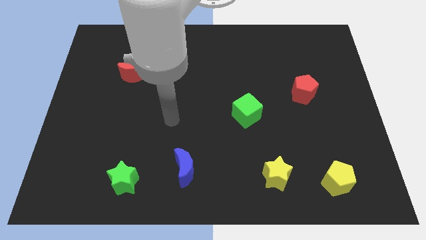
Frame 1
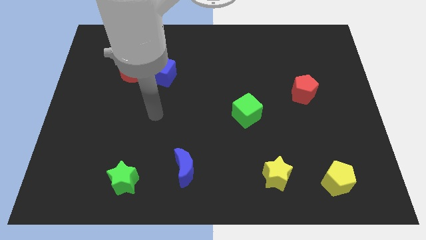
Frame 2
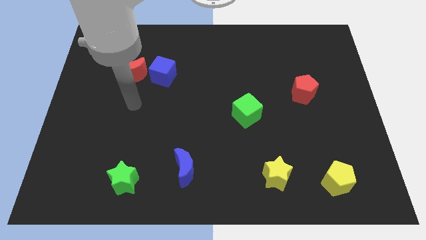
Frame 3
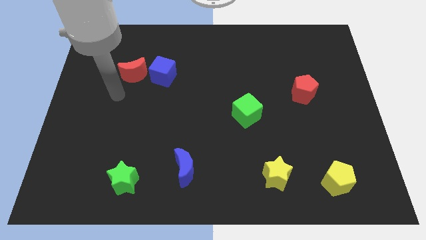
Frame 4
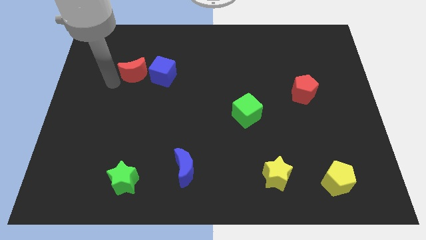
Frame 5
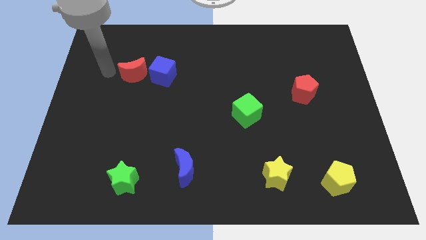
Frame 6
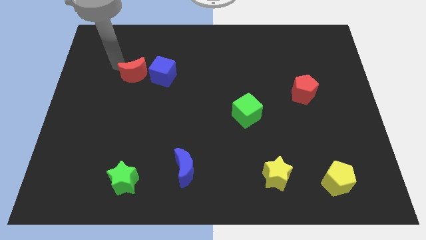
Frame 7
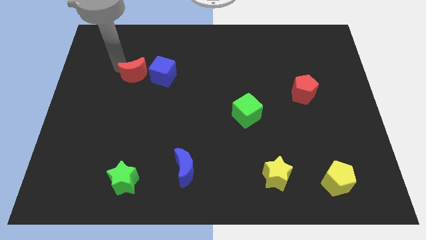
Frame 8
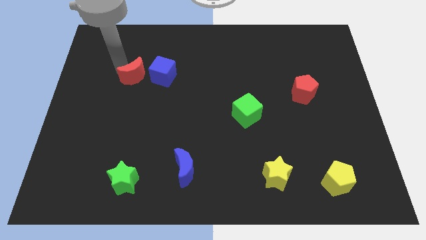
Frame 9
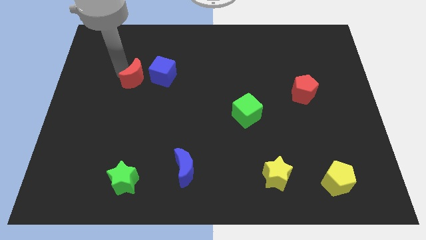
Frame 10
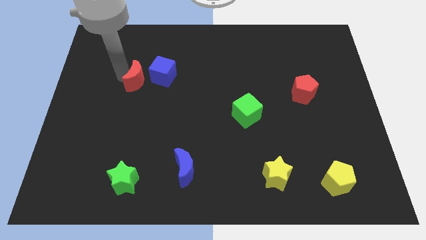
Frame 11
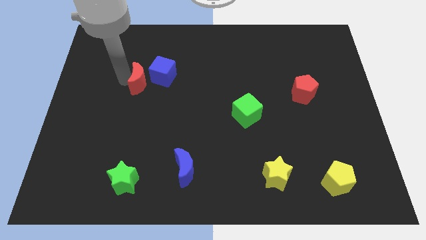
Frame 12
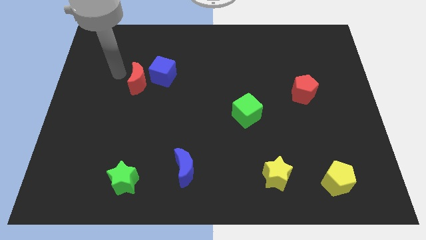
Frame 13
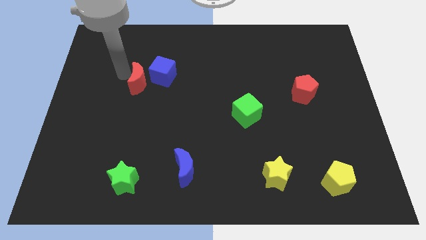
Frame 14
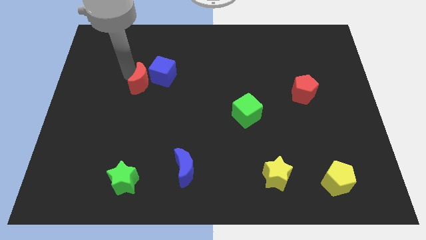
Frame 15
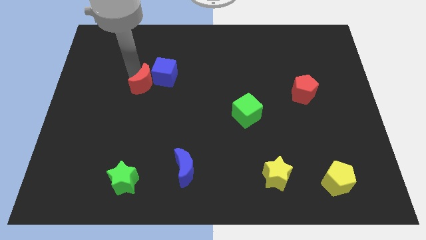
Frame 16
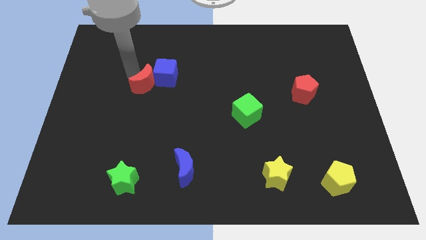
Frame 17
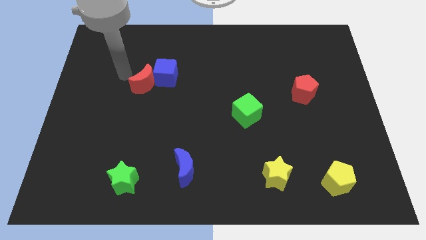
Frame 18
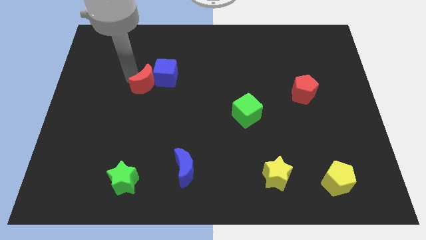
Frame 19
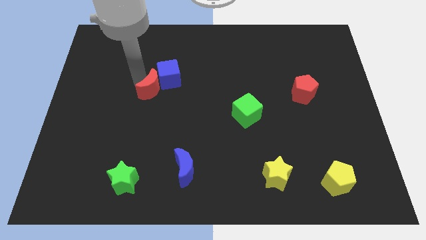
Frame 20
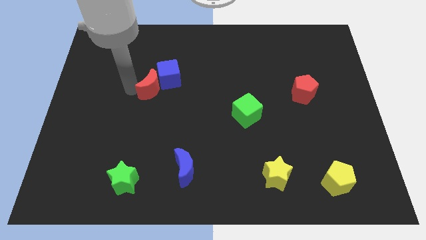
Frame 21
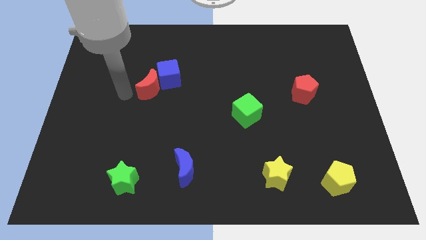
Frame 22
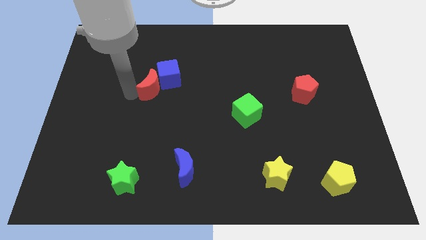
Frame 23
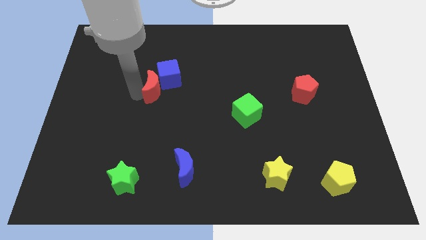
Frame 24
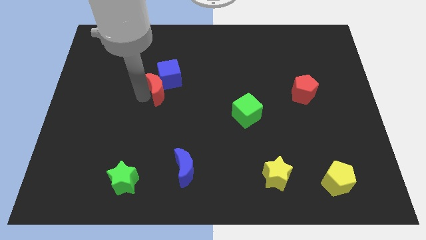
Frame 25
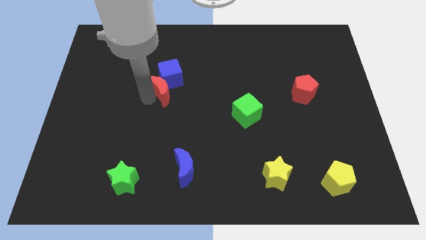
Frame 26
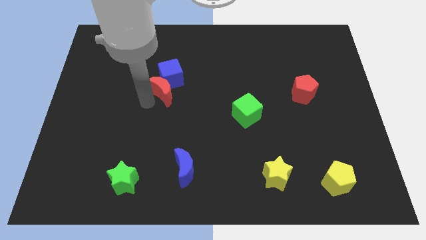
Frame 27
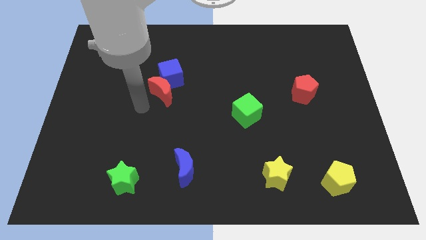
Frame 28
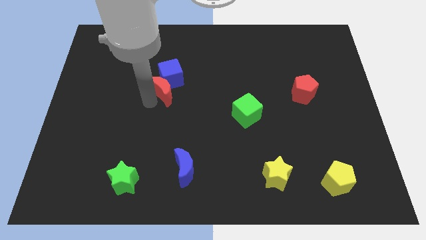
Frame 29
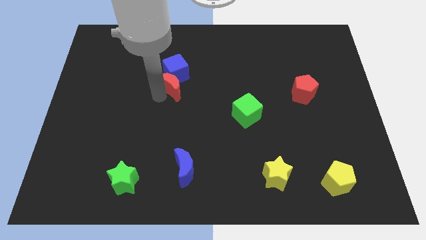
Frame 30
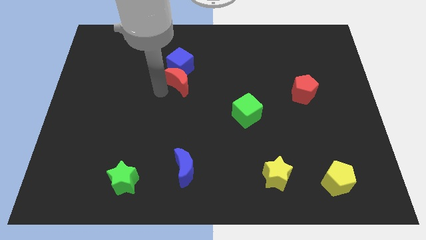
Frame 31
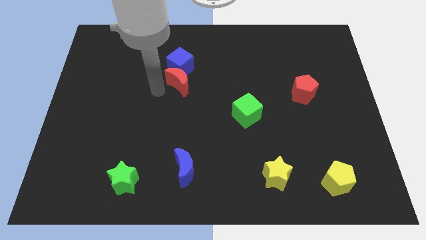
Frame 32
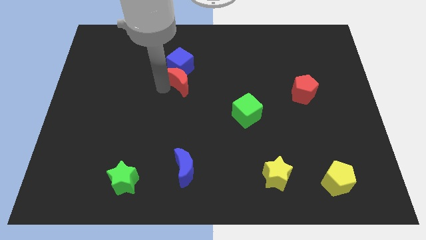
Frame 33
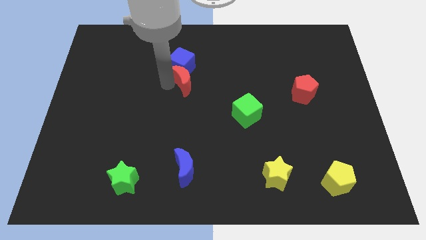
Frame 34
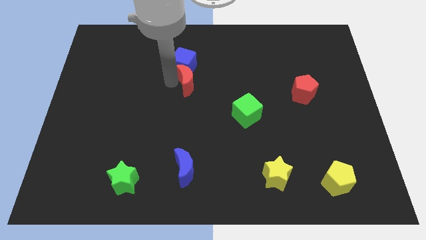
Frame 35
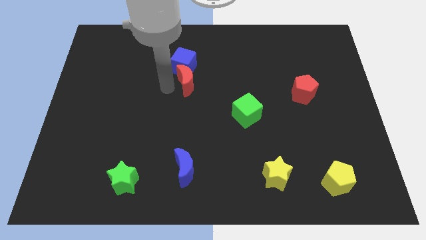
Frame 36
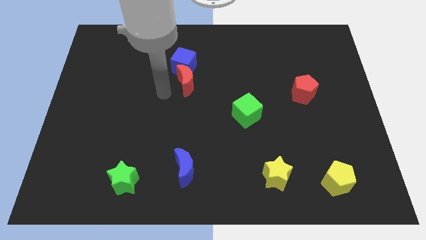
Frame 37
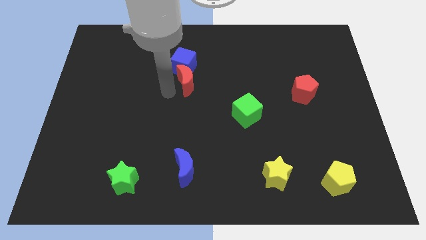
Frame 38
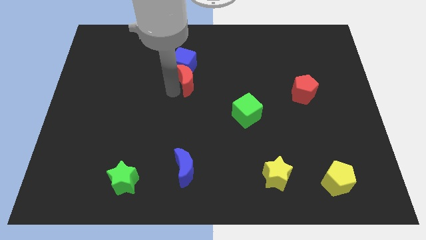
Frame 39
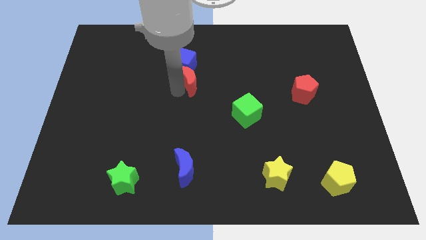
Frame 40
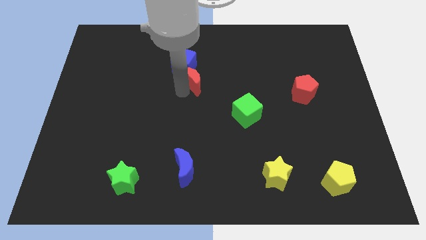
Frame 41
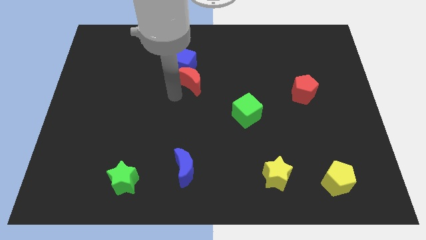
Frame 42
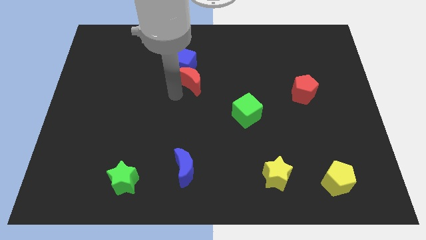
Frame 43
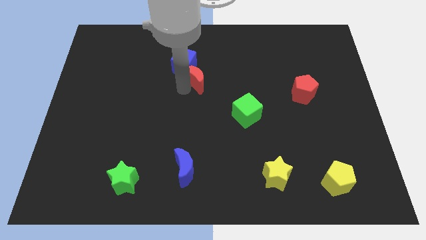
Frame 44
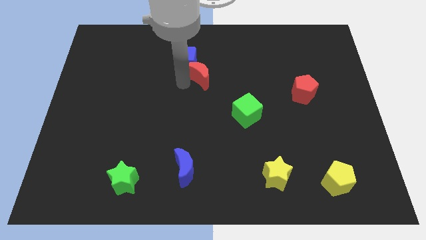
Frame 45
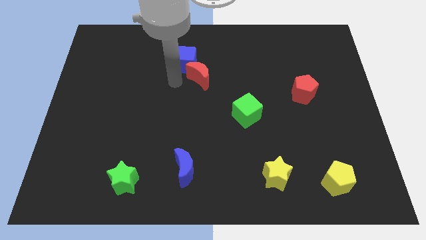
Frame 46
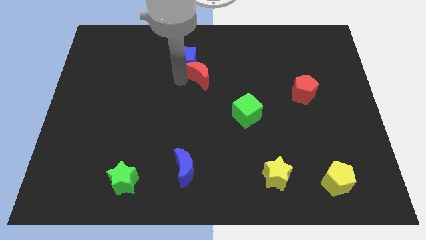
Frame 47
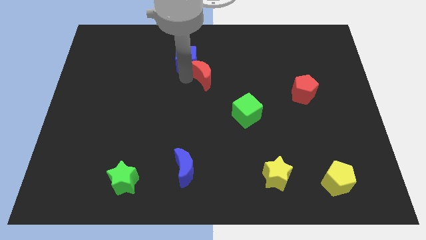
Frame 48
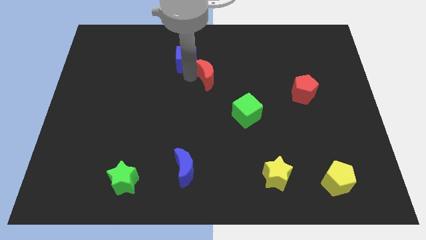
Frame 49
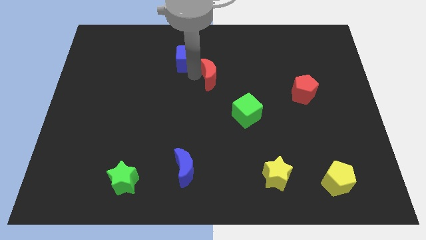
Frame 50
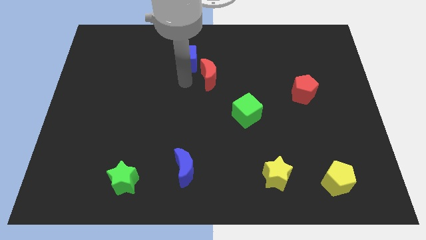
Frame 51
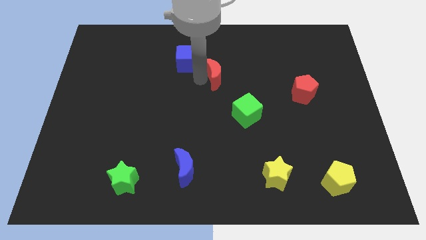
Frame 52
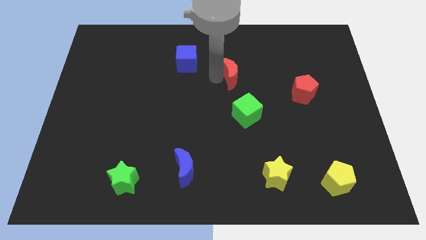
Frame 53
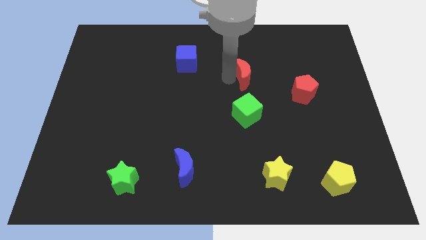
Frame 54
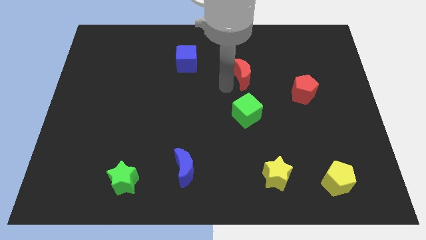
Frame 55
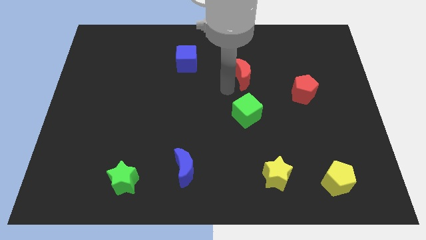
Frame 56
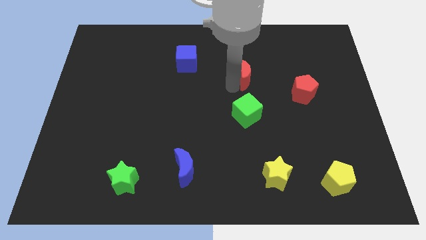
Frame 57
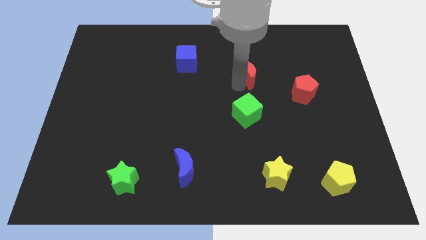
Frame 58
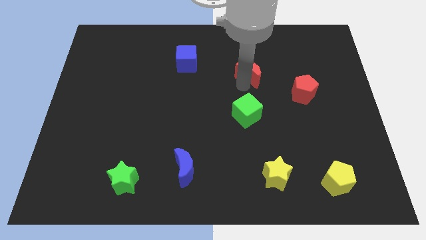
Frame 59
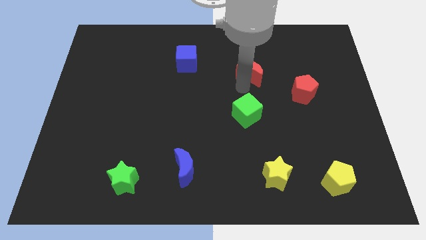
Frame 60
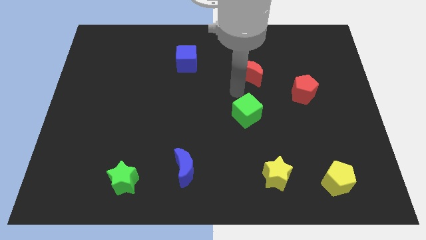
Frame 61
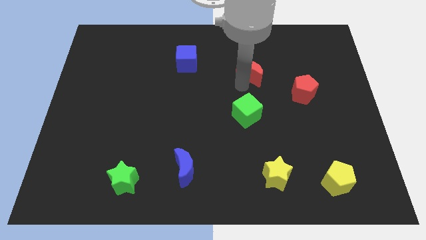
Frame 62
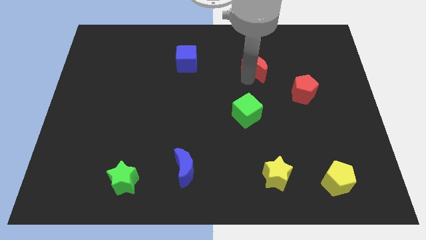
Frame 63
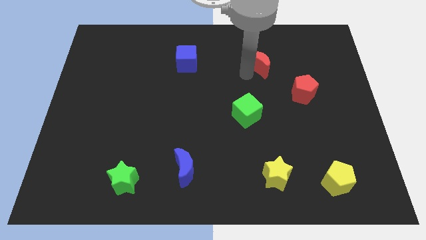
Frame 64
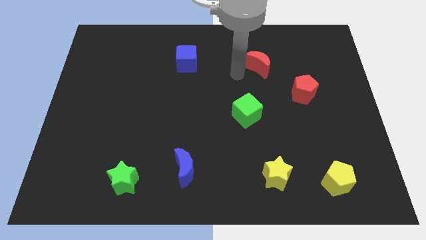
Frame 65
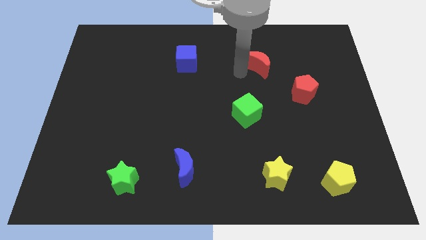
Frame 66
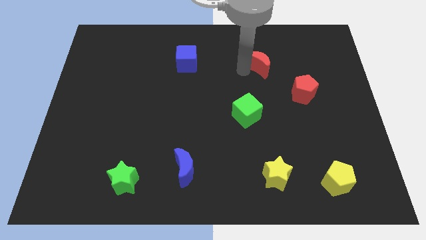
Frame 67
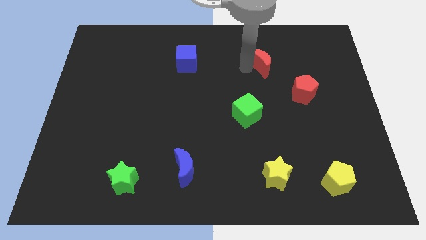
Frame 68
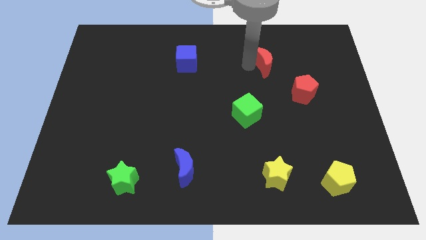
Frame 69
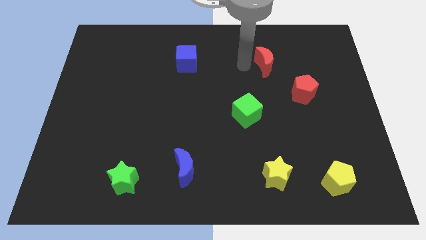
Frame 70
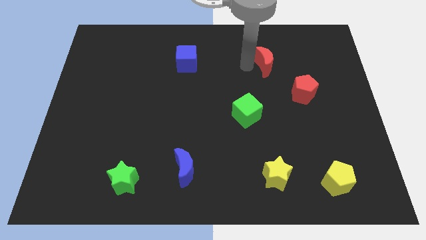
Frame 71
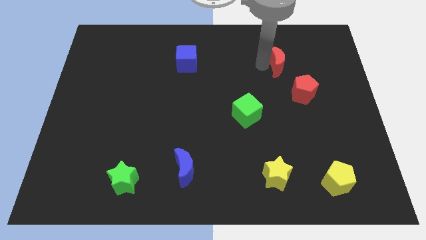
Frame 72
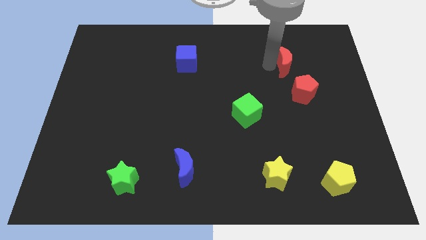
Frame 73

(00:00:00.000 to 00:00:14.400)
move the red moon to the top side of the red pentagon
